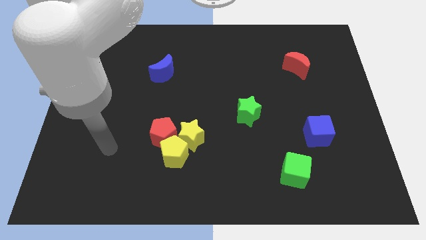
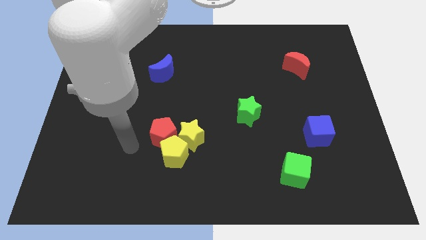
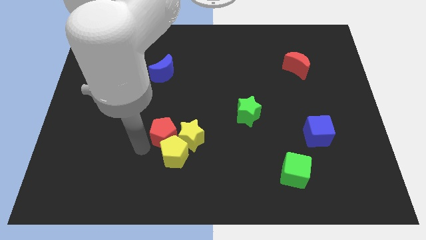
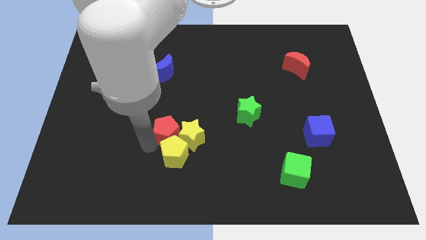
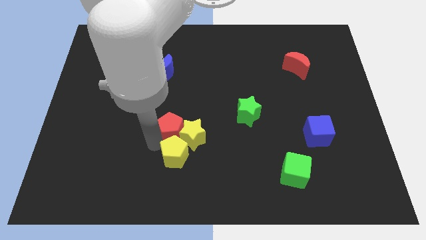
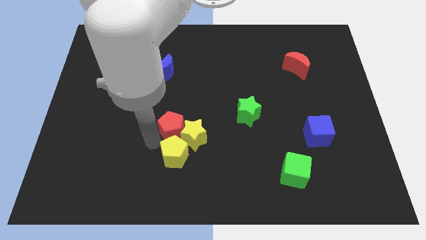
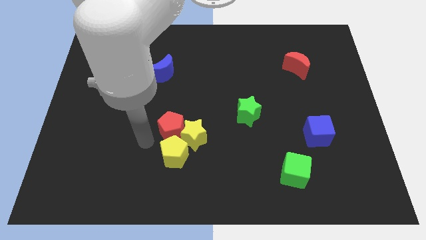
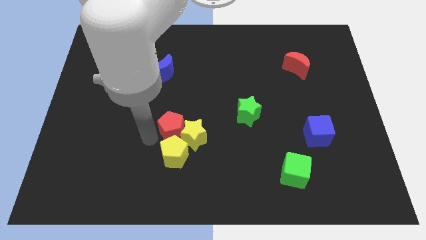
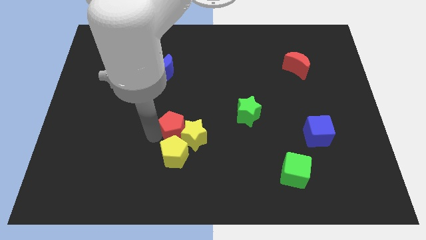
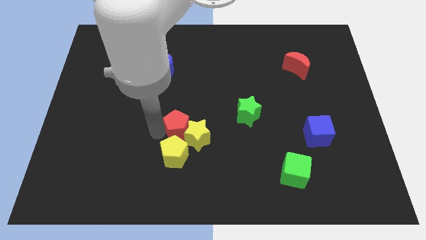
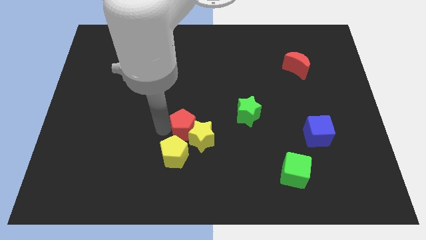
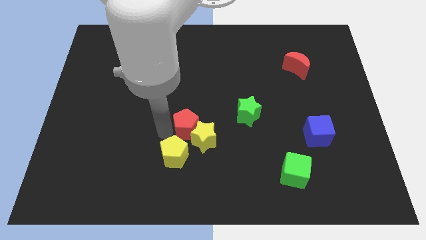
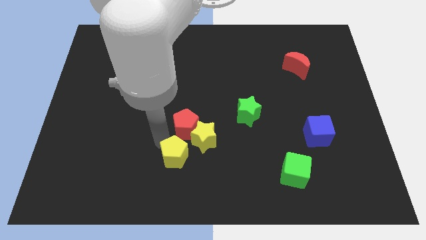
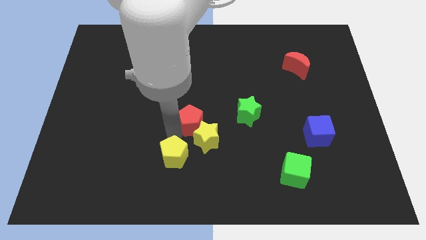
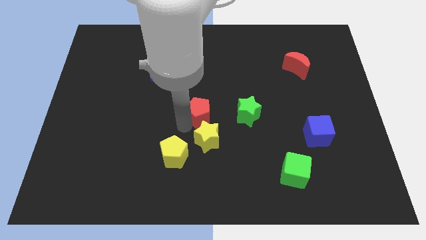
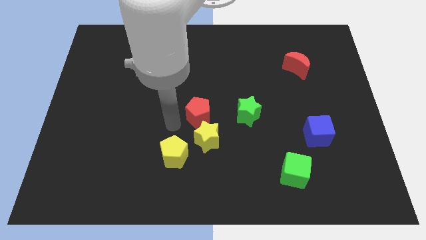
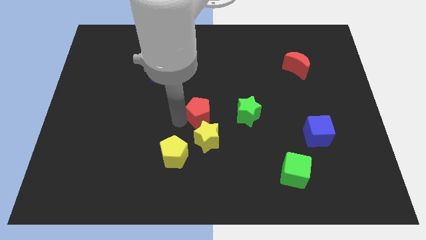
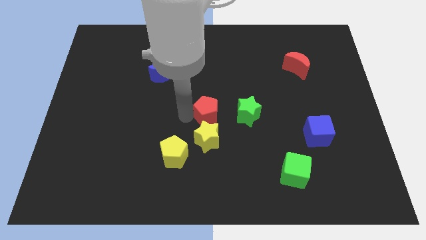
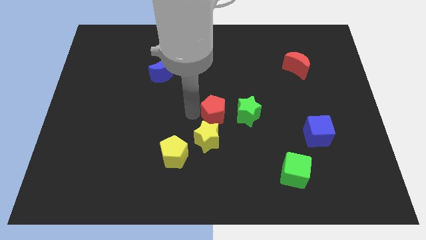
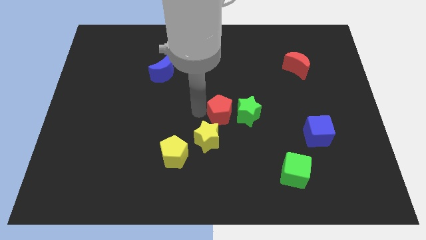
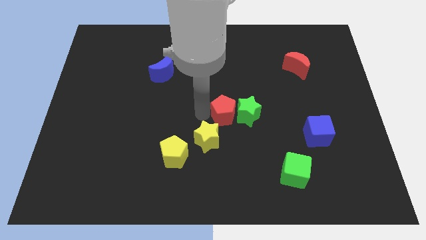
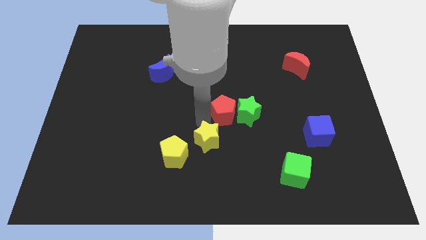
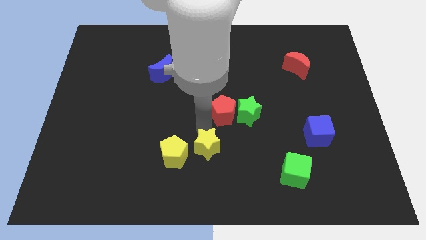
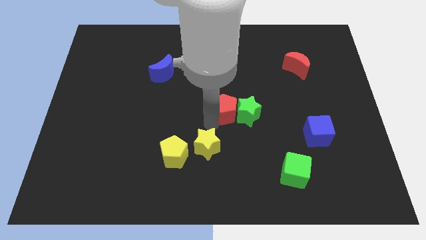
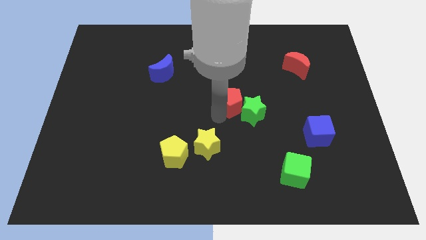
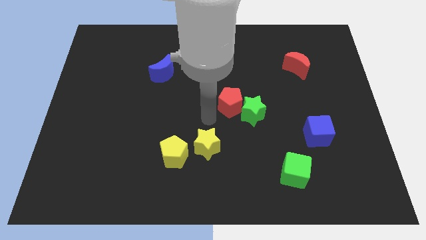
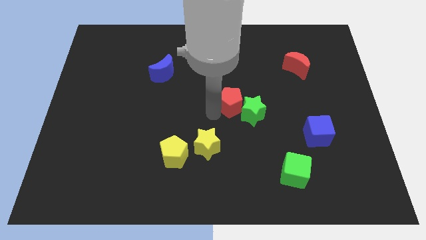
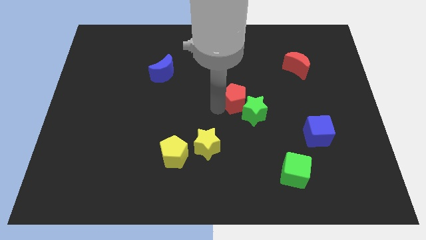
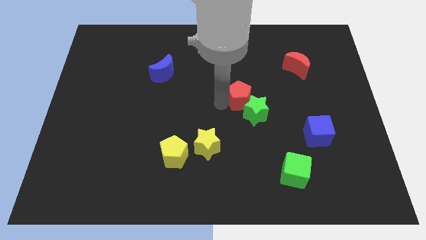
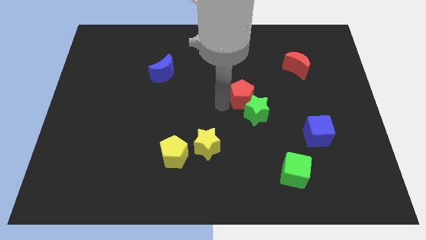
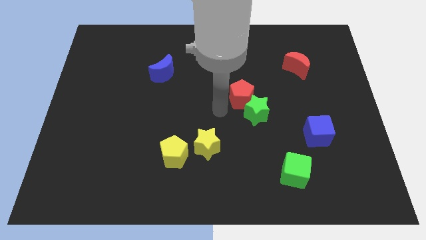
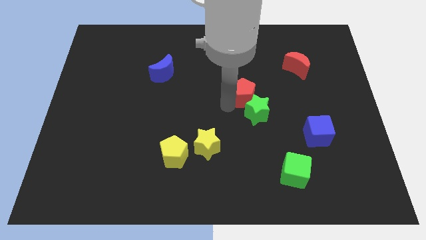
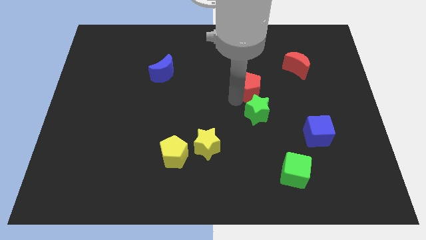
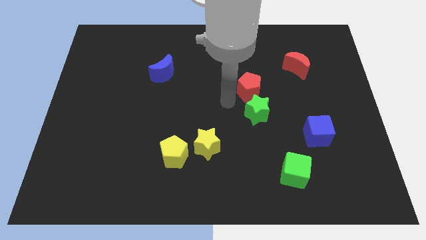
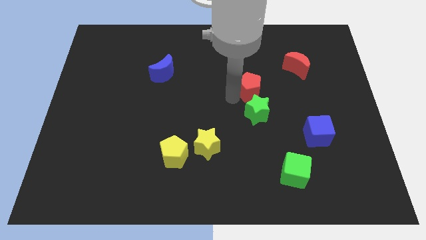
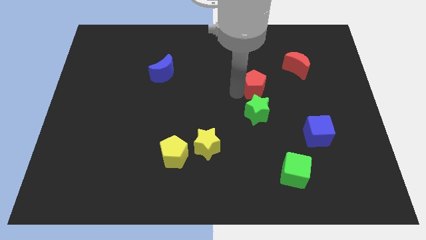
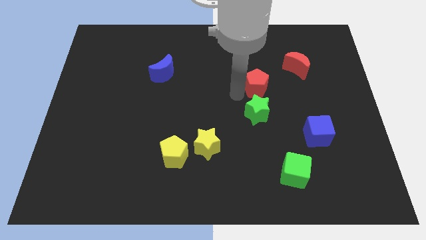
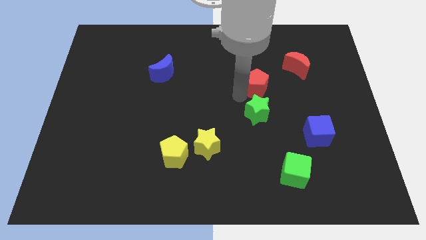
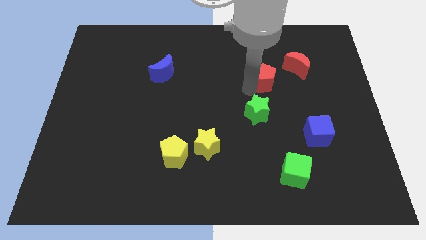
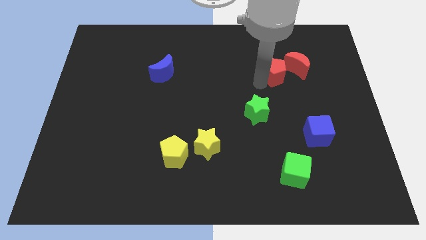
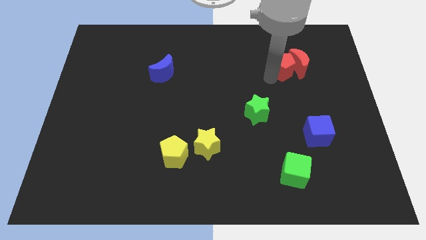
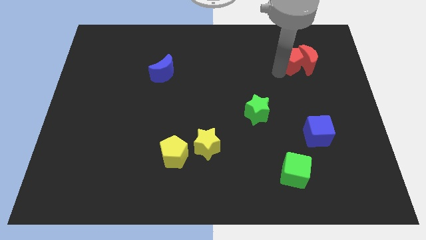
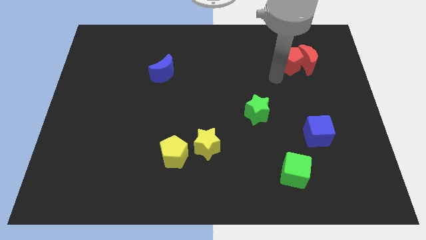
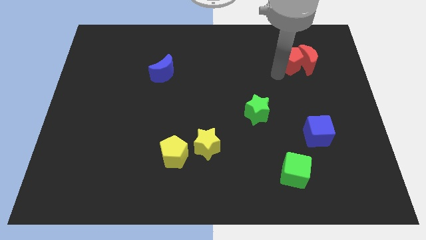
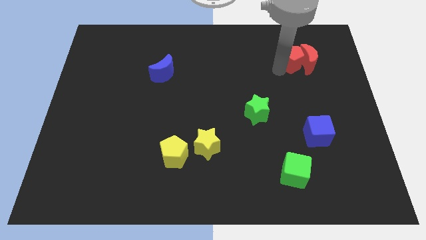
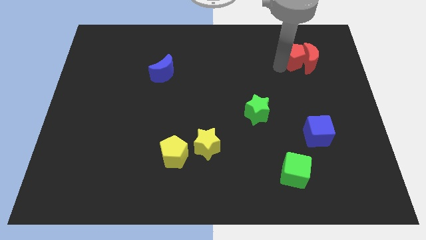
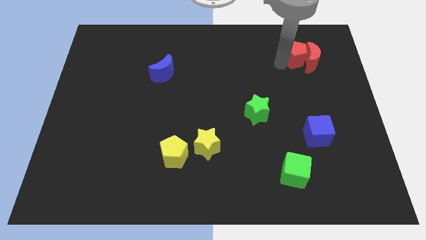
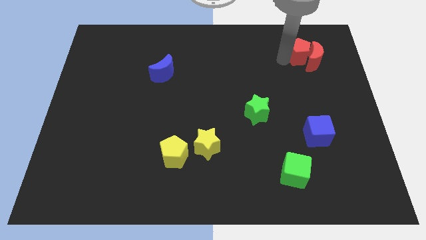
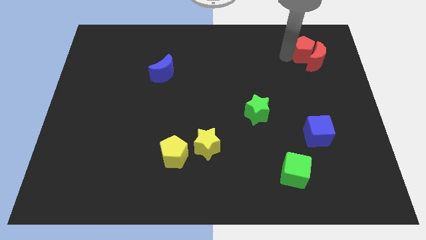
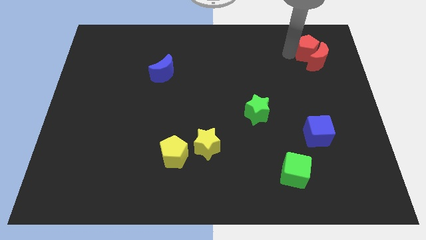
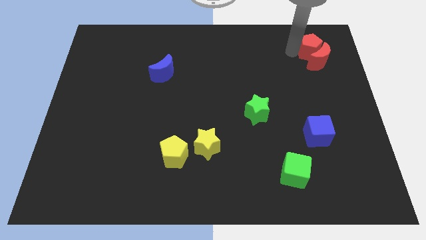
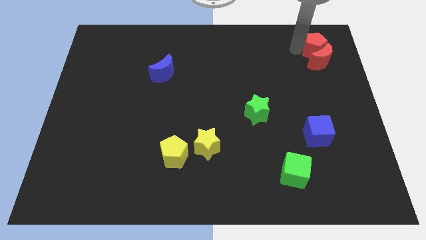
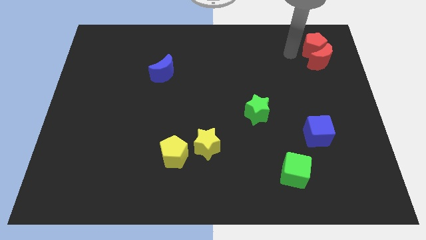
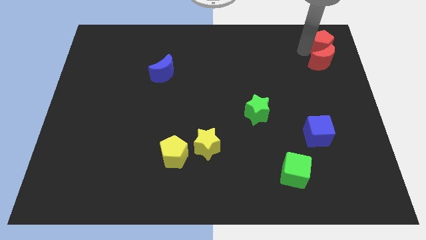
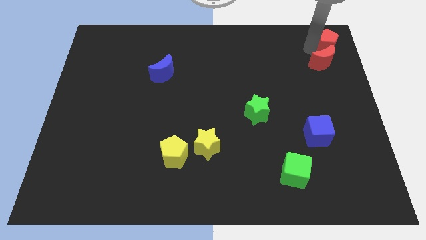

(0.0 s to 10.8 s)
move the red pentagon to the upper right corner

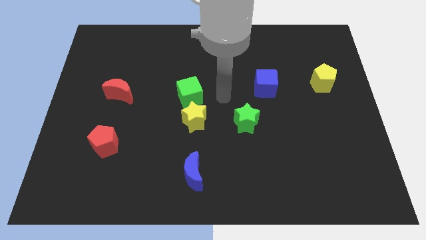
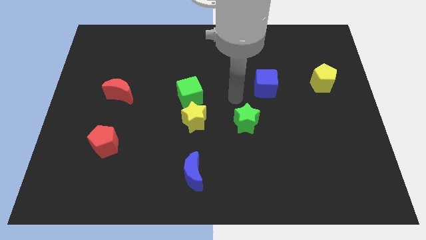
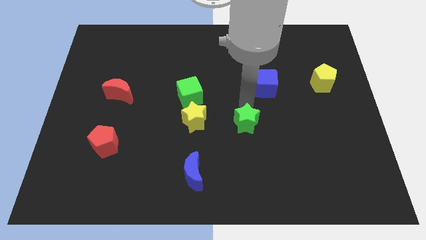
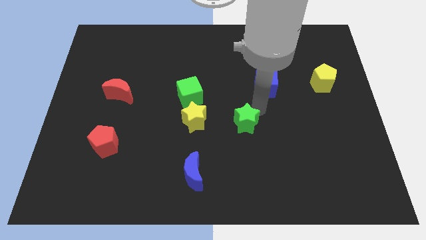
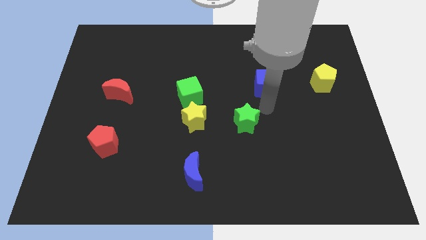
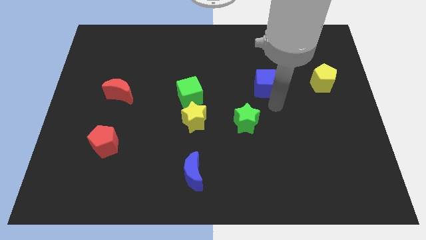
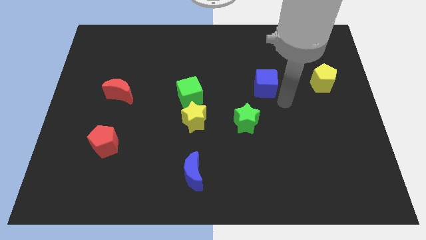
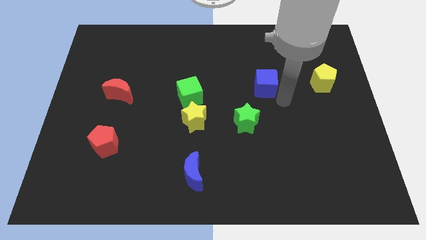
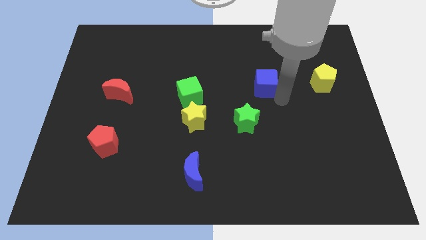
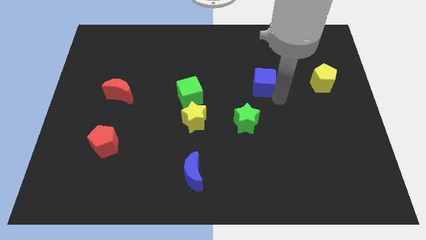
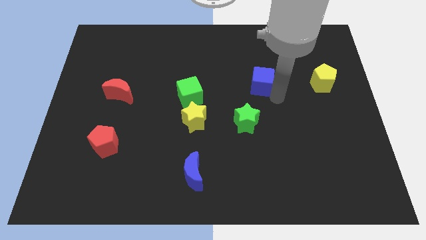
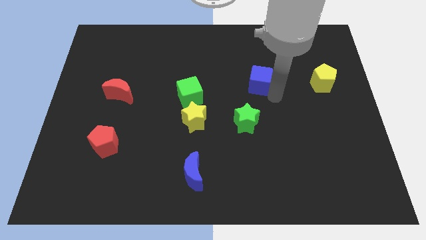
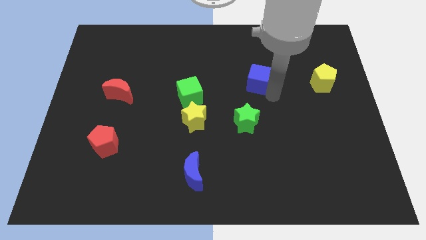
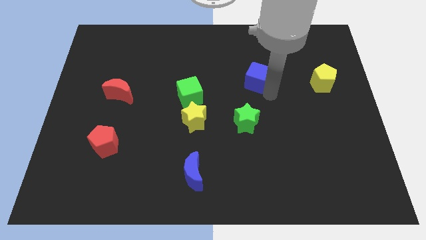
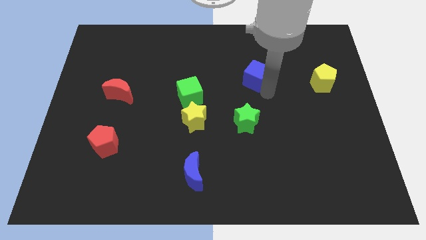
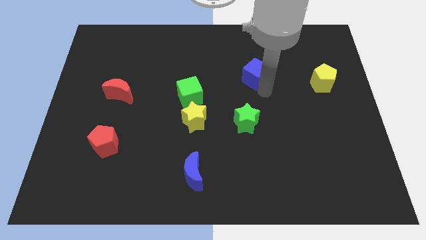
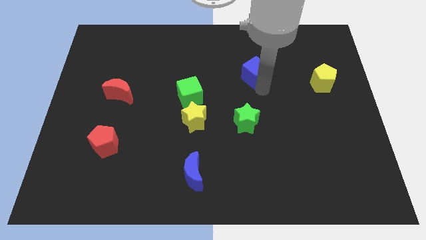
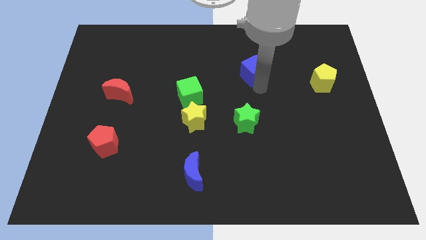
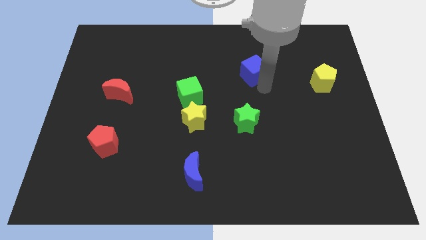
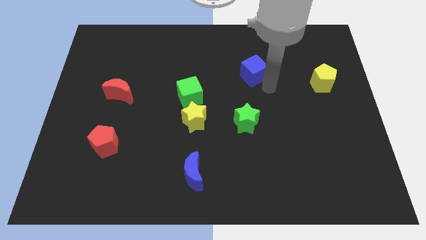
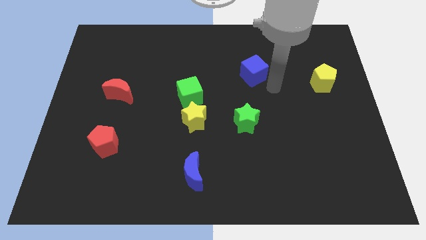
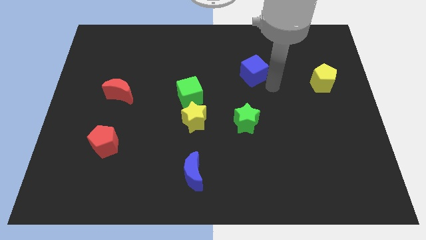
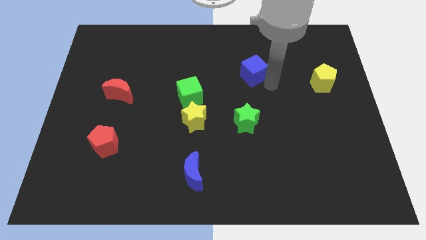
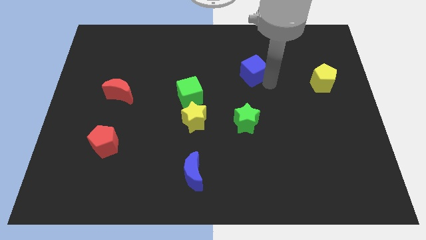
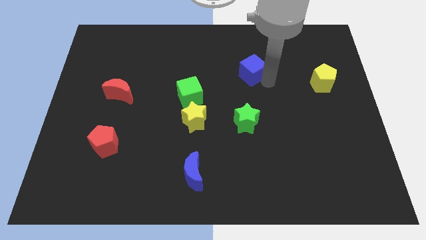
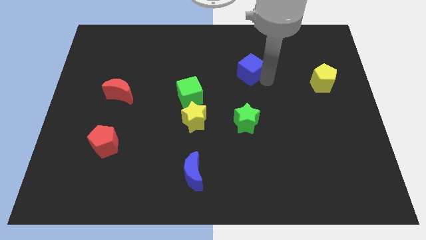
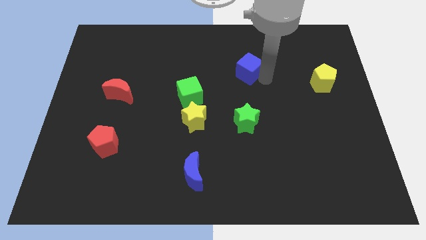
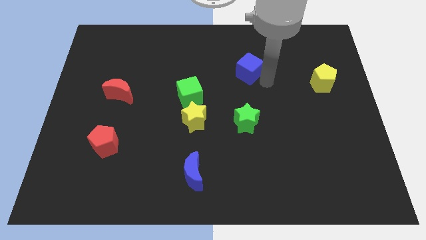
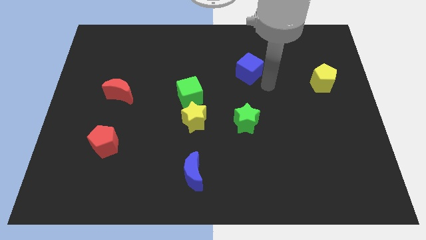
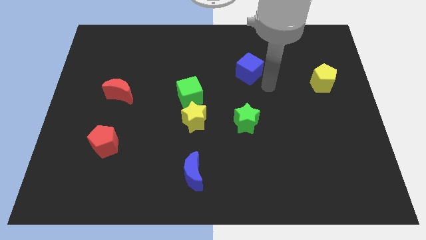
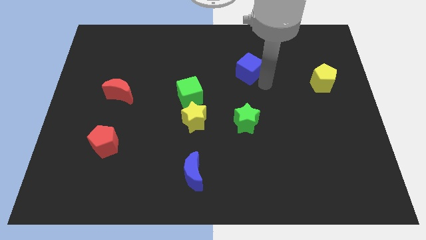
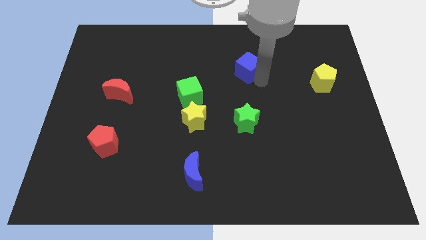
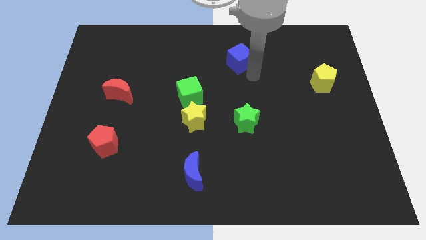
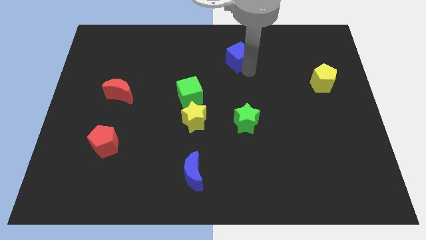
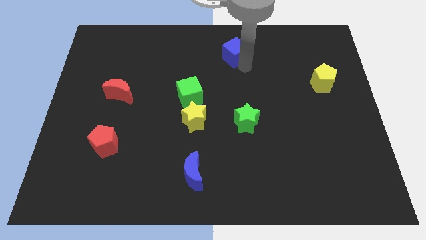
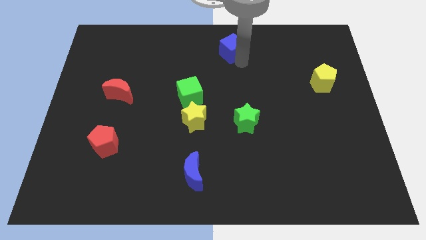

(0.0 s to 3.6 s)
push the blue cube to the top
